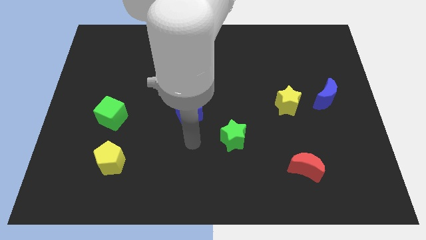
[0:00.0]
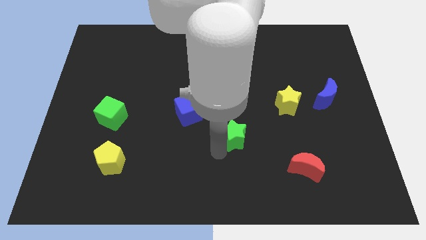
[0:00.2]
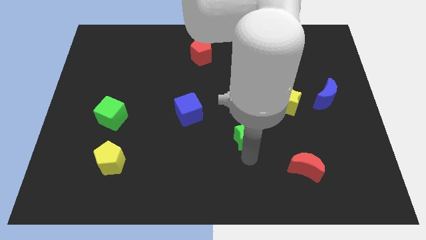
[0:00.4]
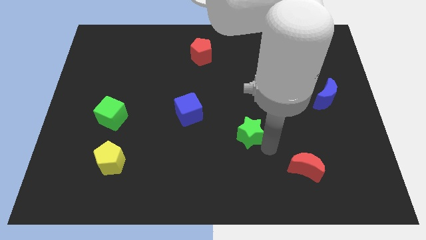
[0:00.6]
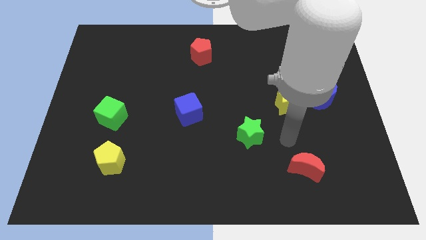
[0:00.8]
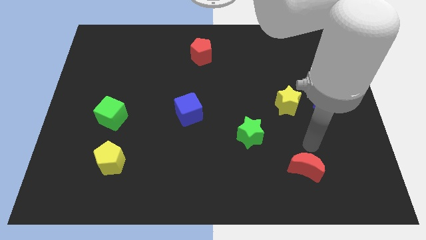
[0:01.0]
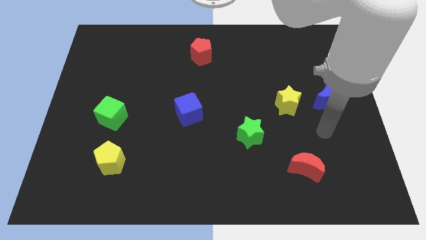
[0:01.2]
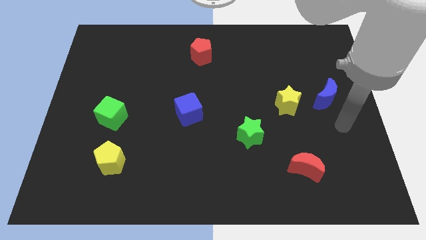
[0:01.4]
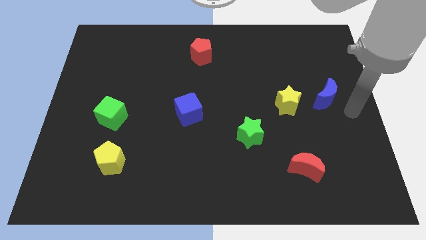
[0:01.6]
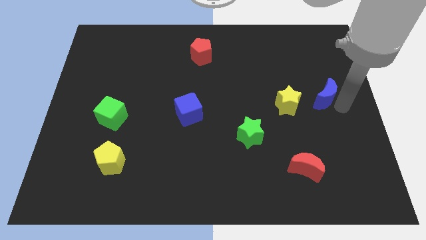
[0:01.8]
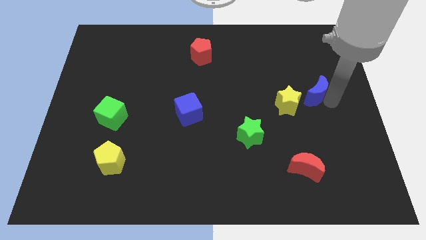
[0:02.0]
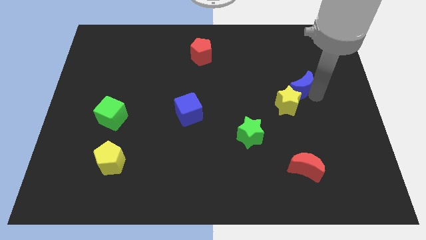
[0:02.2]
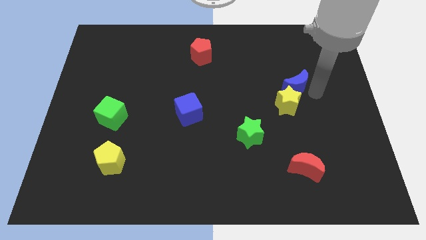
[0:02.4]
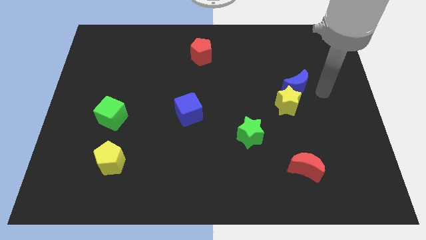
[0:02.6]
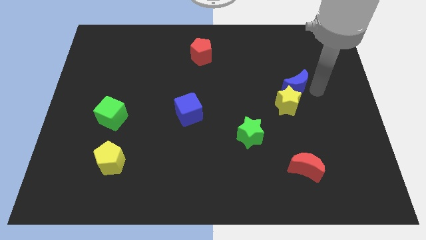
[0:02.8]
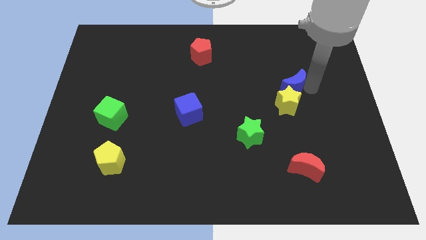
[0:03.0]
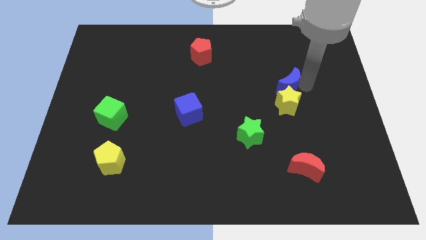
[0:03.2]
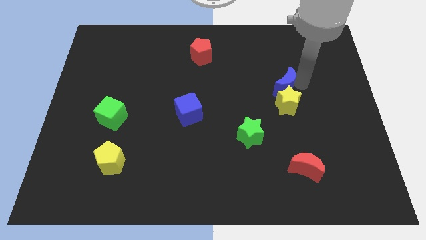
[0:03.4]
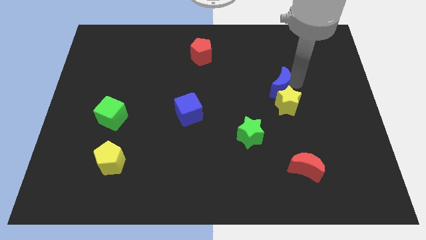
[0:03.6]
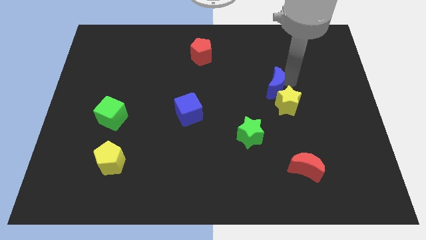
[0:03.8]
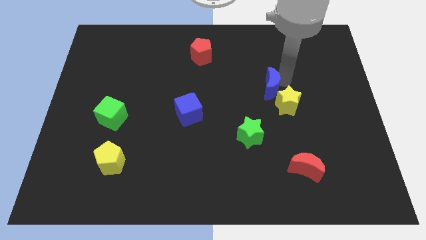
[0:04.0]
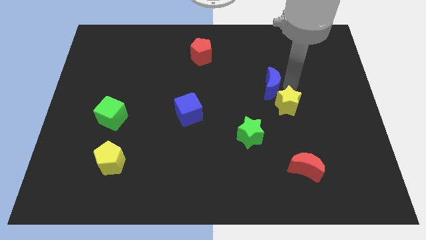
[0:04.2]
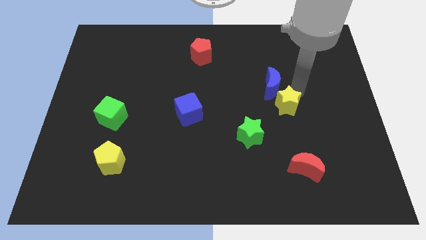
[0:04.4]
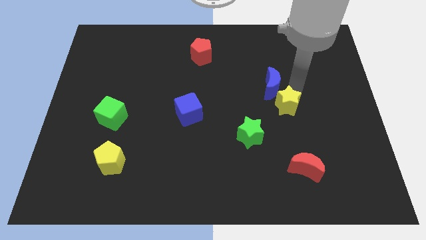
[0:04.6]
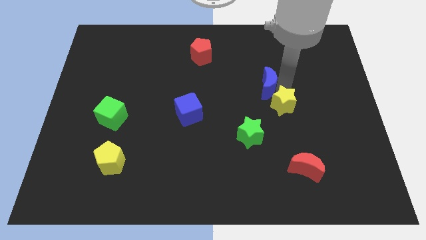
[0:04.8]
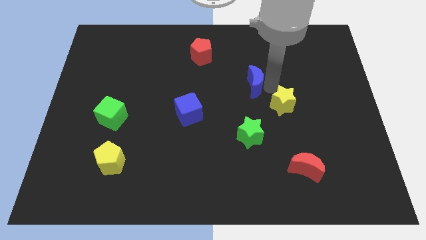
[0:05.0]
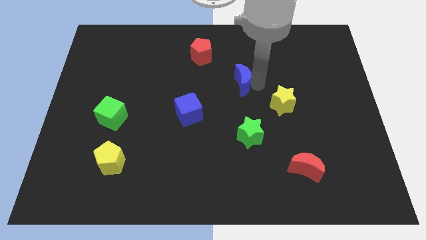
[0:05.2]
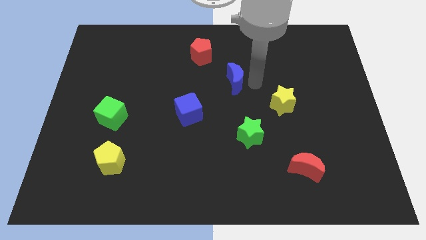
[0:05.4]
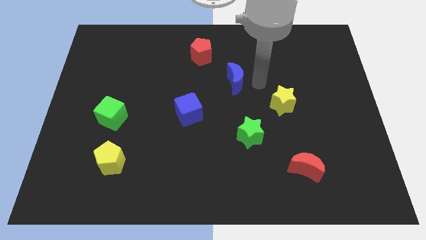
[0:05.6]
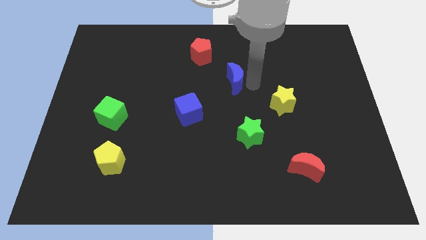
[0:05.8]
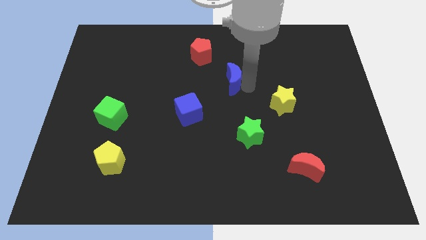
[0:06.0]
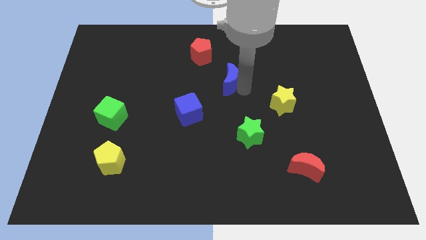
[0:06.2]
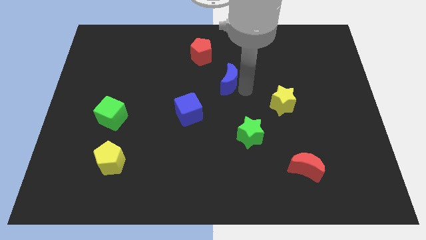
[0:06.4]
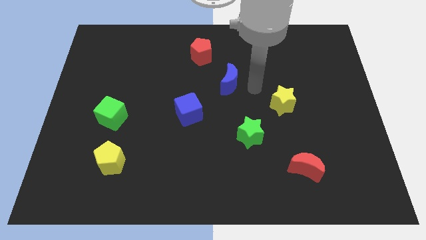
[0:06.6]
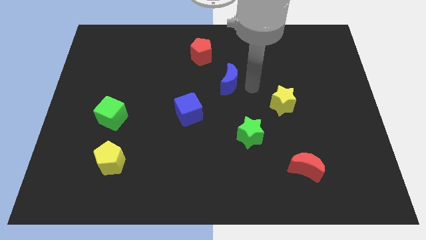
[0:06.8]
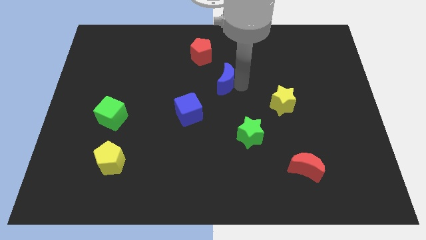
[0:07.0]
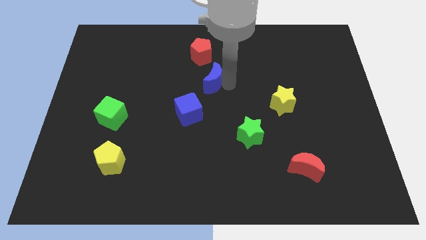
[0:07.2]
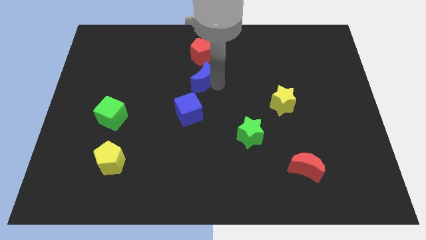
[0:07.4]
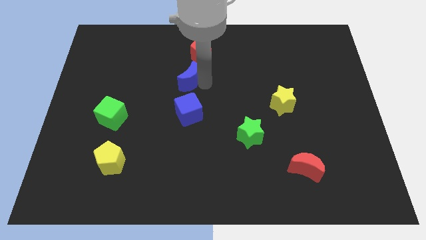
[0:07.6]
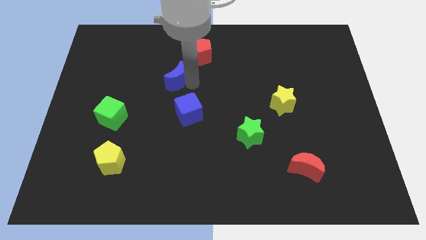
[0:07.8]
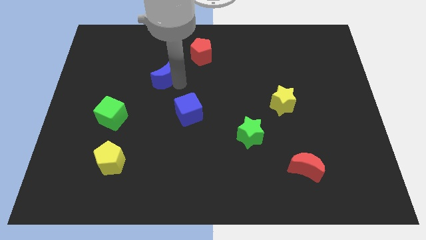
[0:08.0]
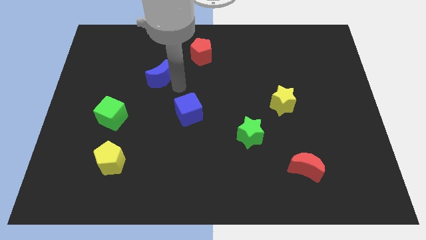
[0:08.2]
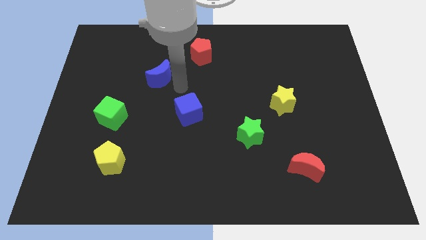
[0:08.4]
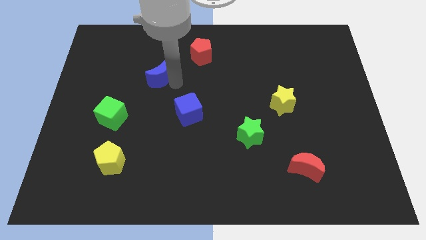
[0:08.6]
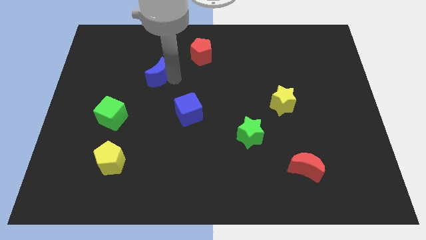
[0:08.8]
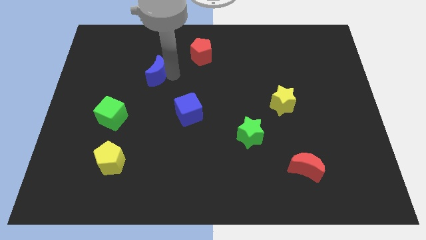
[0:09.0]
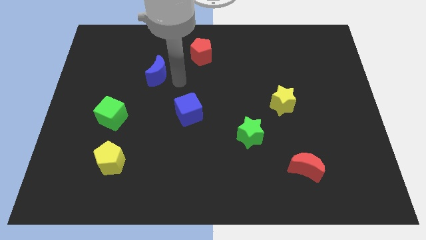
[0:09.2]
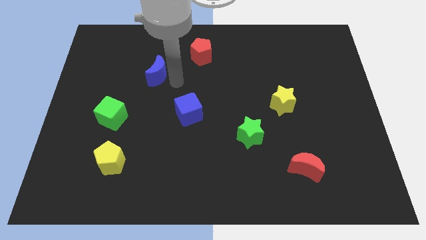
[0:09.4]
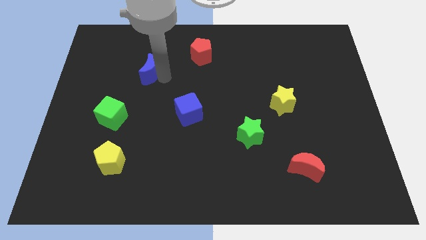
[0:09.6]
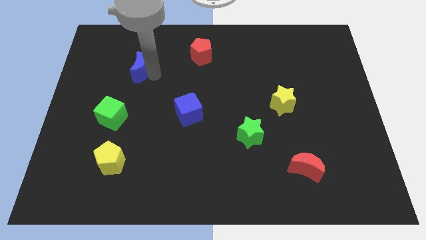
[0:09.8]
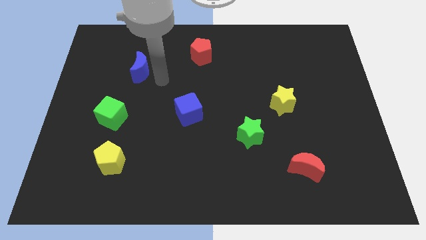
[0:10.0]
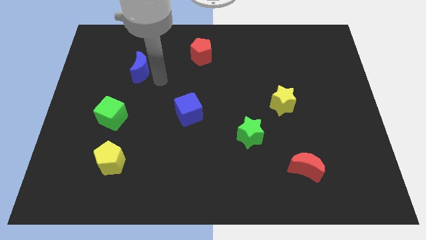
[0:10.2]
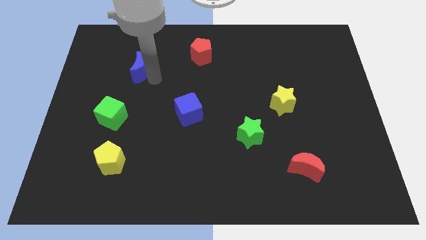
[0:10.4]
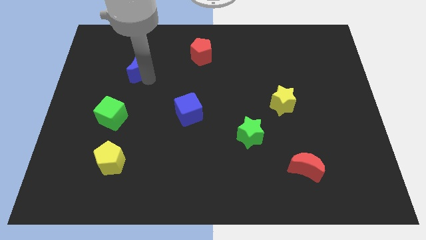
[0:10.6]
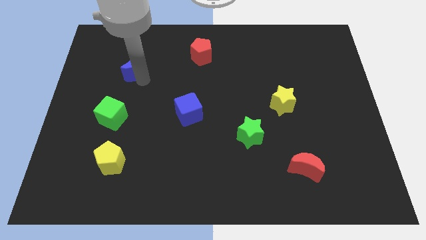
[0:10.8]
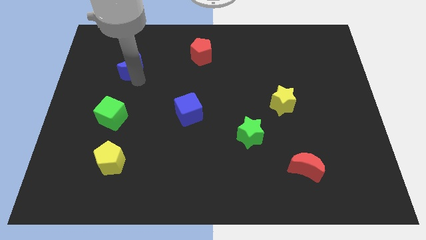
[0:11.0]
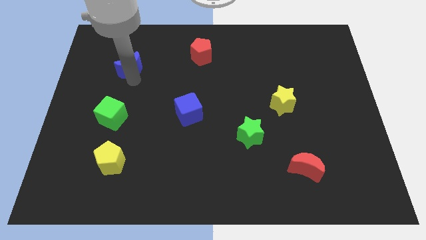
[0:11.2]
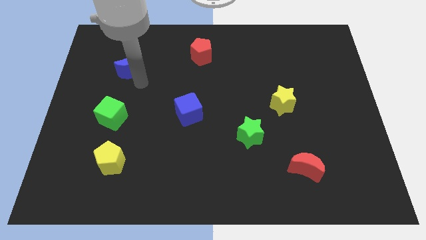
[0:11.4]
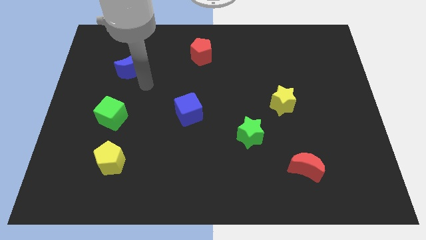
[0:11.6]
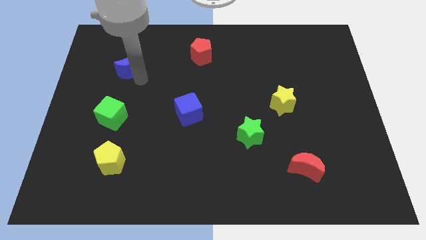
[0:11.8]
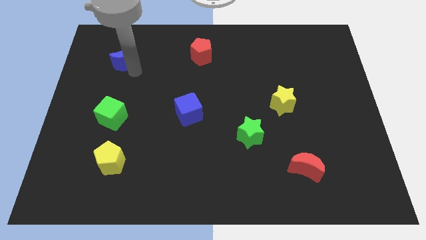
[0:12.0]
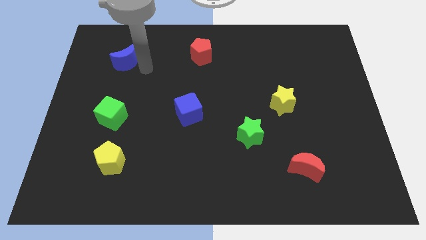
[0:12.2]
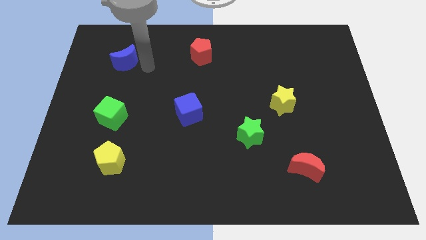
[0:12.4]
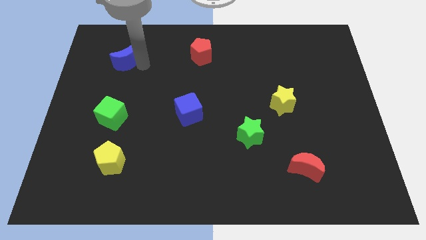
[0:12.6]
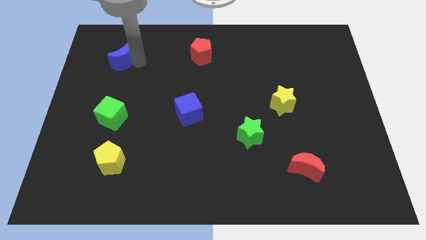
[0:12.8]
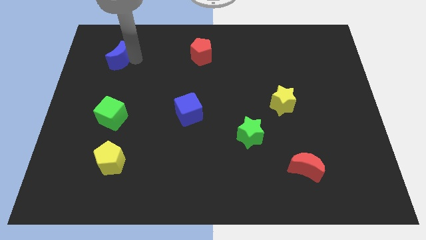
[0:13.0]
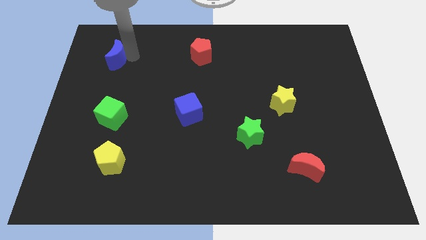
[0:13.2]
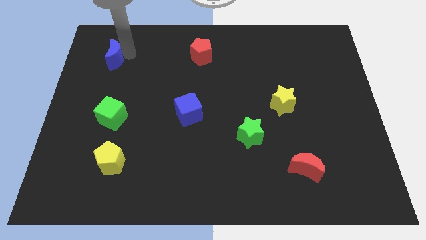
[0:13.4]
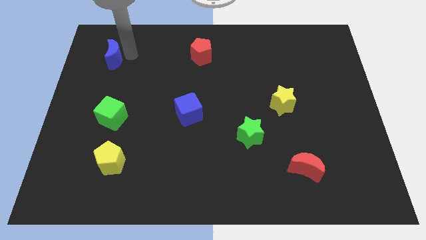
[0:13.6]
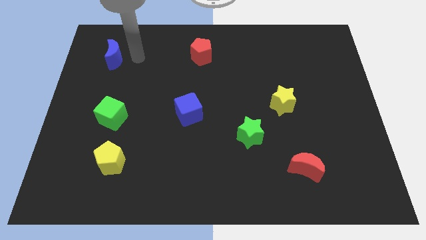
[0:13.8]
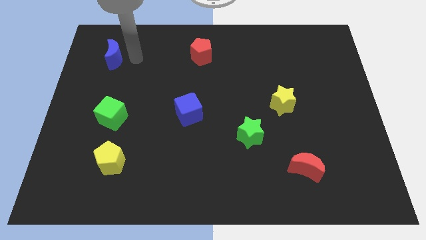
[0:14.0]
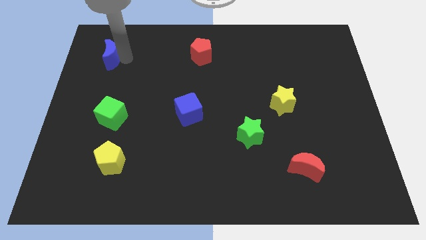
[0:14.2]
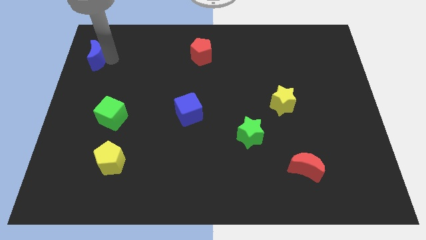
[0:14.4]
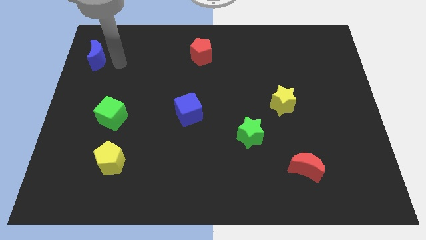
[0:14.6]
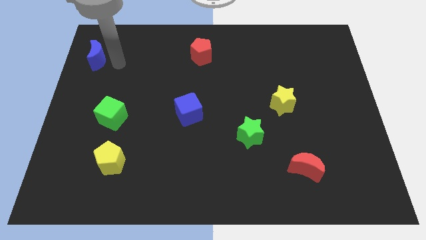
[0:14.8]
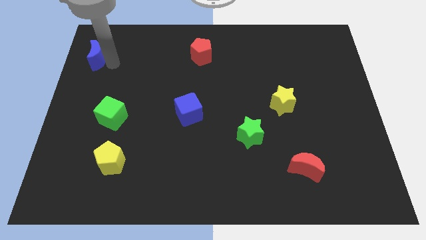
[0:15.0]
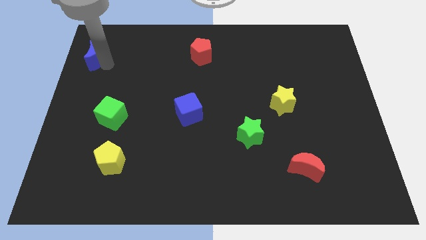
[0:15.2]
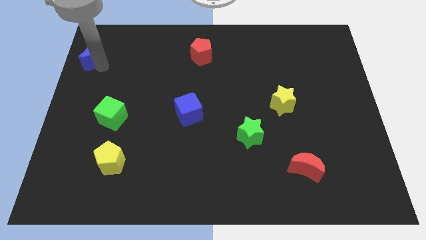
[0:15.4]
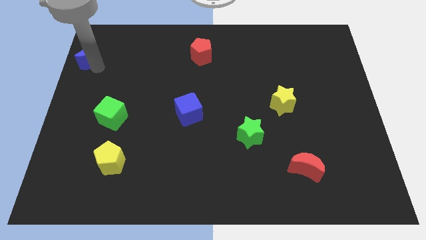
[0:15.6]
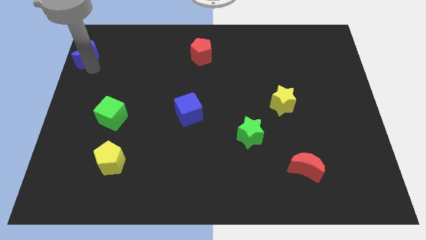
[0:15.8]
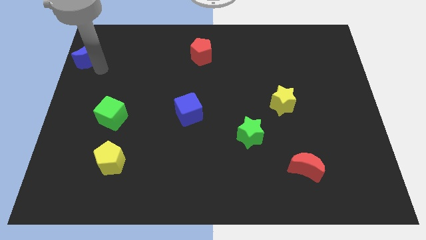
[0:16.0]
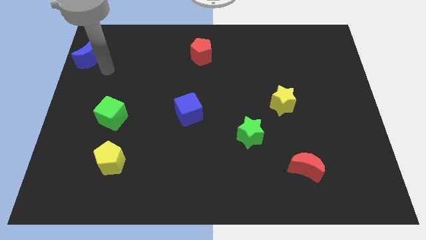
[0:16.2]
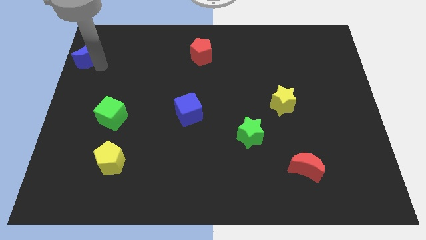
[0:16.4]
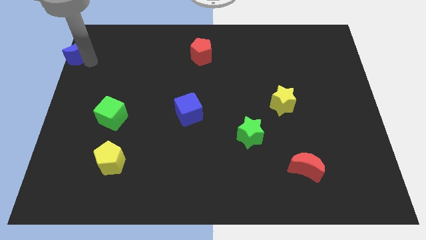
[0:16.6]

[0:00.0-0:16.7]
put the blue moon to the upper left corner
